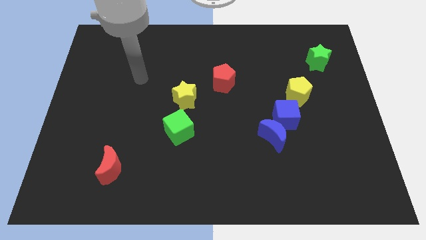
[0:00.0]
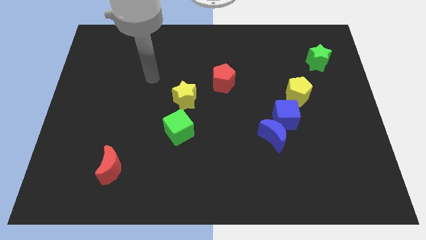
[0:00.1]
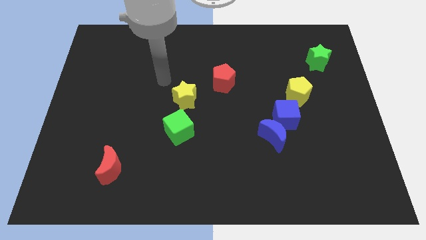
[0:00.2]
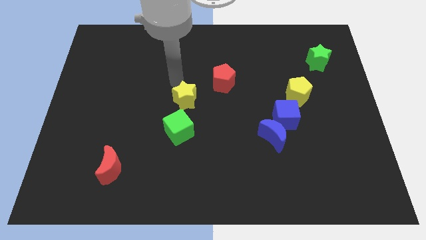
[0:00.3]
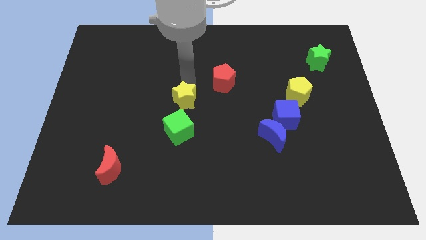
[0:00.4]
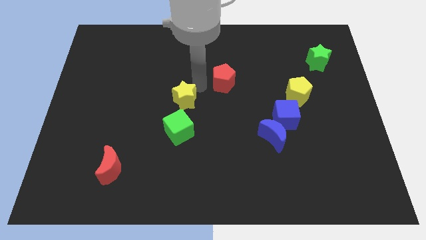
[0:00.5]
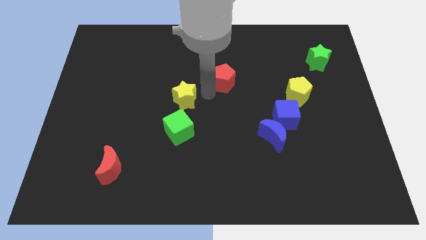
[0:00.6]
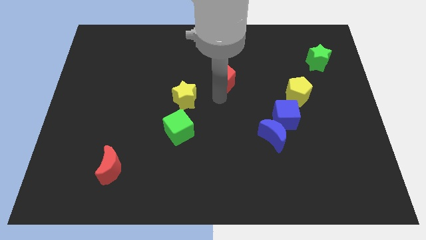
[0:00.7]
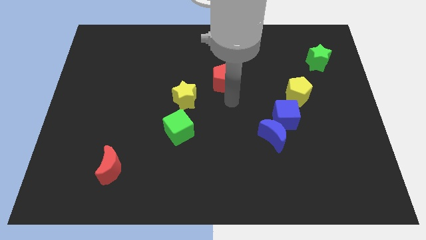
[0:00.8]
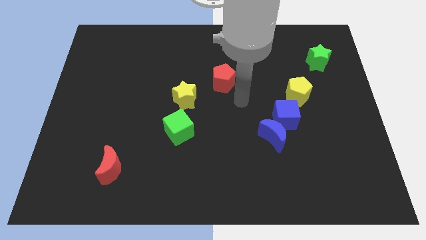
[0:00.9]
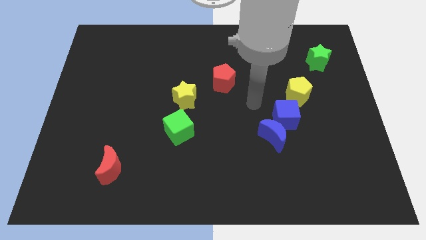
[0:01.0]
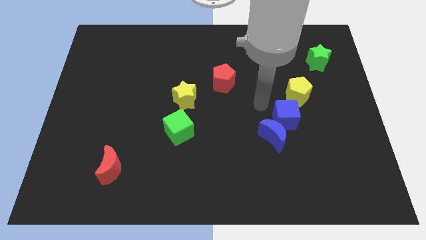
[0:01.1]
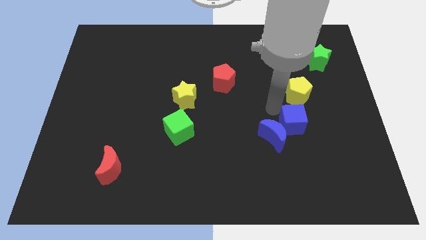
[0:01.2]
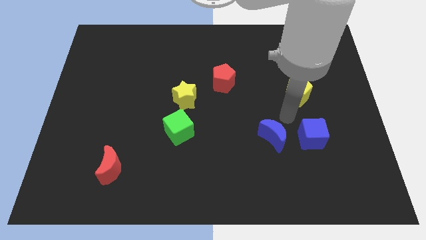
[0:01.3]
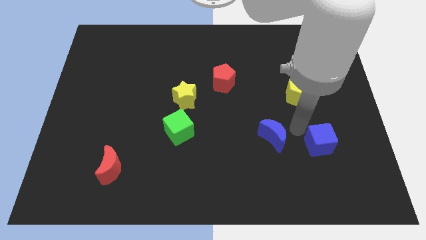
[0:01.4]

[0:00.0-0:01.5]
separate the blue moon from the blue cube

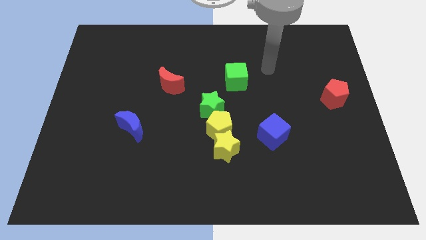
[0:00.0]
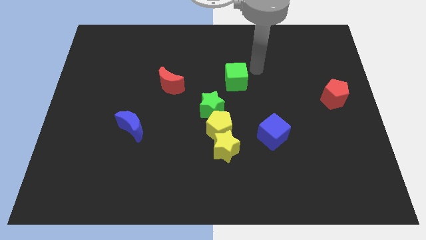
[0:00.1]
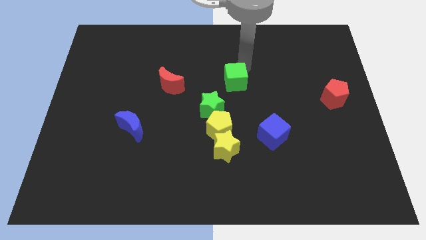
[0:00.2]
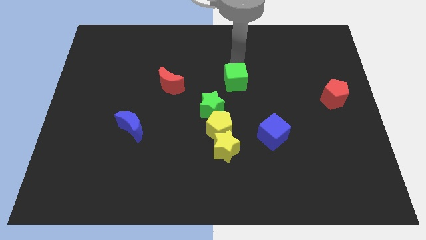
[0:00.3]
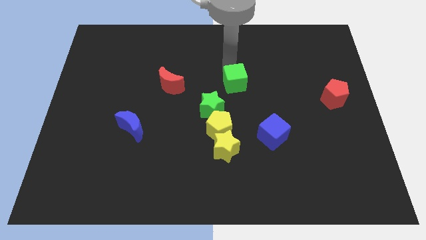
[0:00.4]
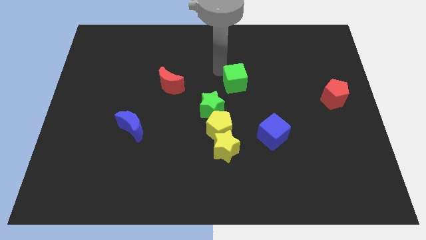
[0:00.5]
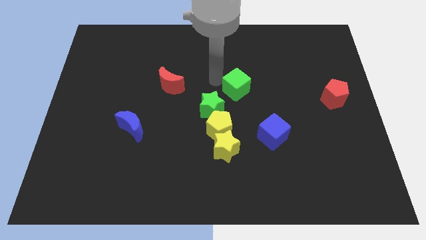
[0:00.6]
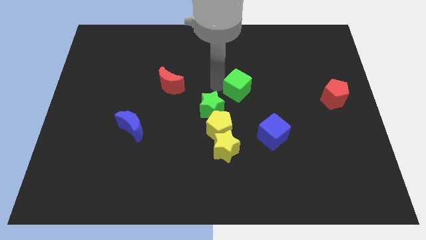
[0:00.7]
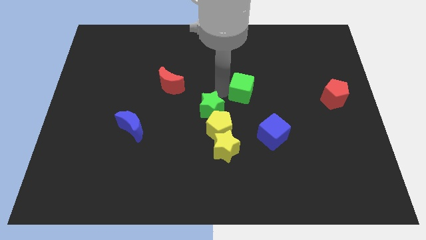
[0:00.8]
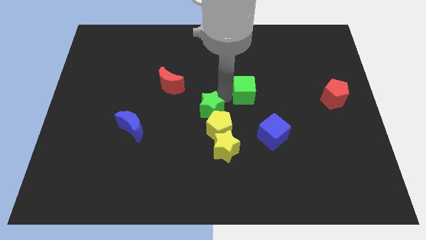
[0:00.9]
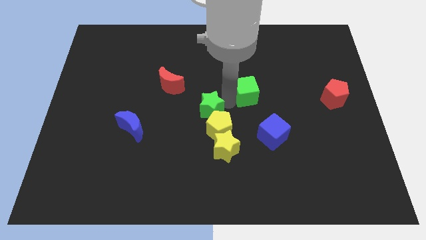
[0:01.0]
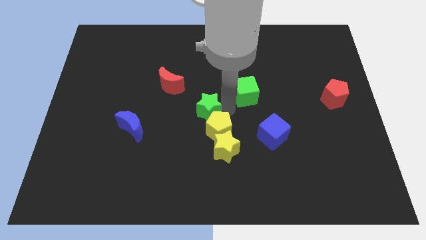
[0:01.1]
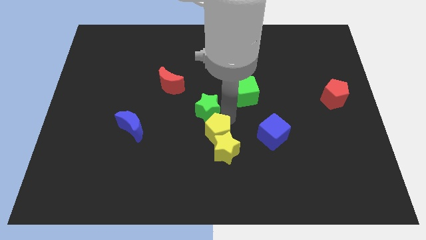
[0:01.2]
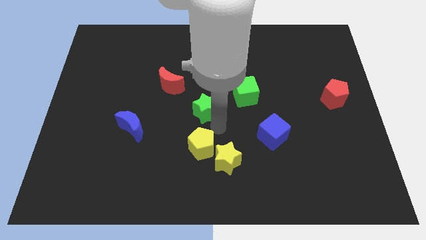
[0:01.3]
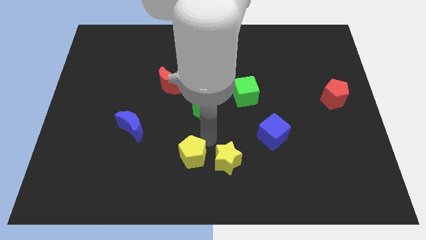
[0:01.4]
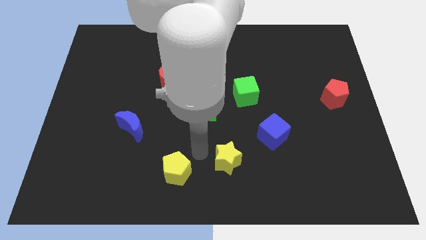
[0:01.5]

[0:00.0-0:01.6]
separate the yellow star from the yellow pentagon

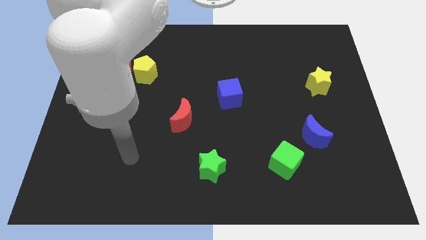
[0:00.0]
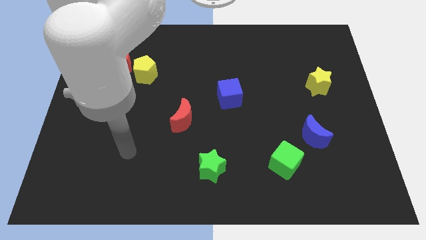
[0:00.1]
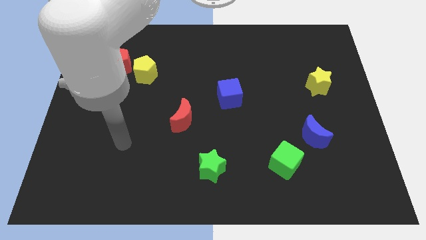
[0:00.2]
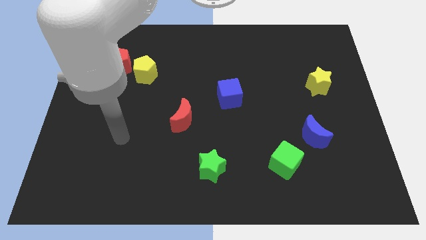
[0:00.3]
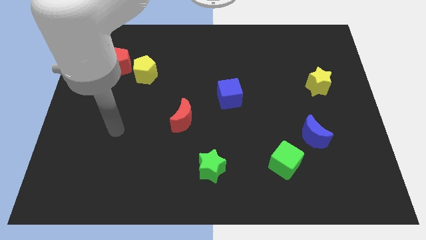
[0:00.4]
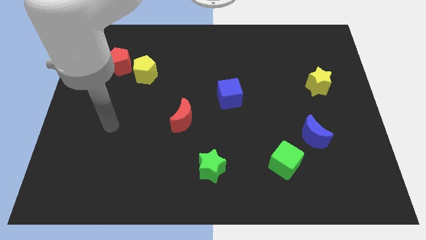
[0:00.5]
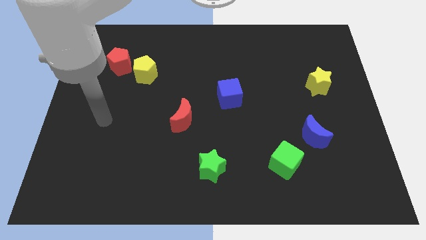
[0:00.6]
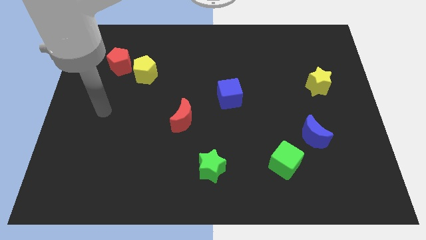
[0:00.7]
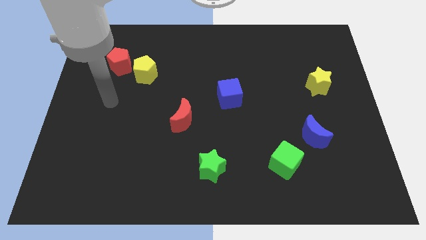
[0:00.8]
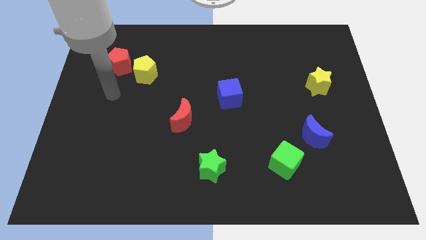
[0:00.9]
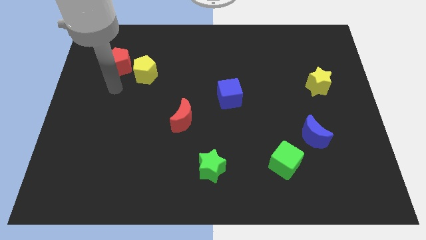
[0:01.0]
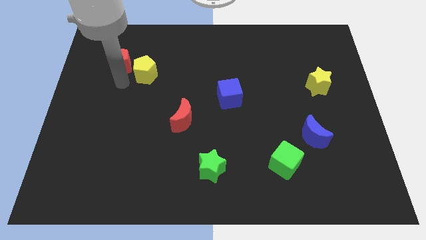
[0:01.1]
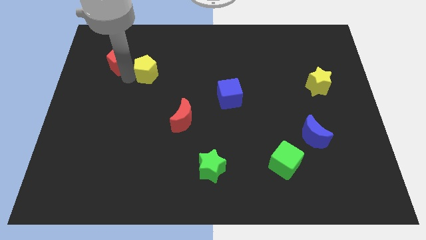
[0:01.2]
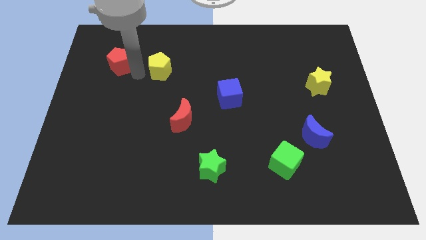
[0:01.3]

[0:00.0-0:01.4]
pull the red pentagon apart from the yellow pentagon

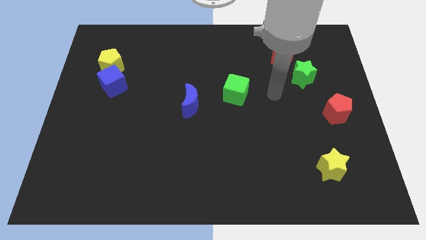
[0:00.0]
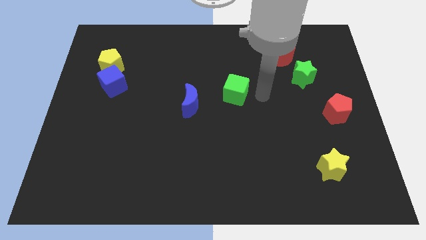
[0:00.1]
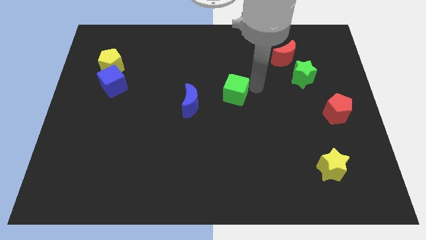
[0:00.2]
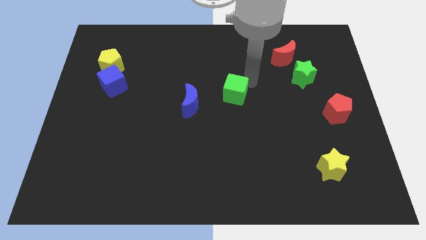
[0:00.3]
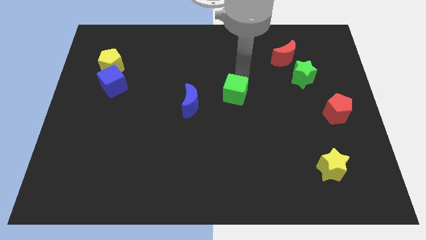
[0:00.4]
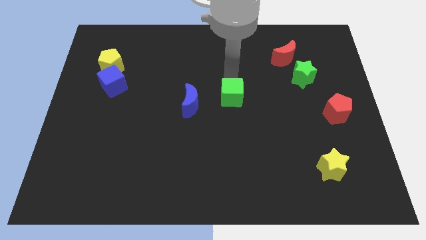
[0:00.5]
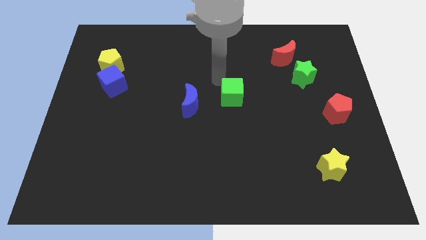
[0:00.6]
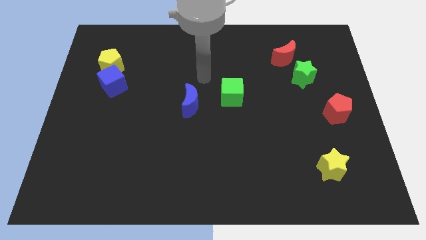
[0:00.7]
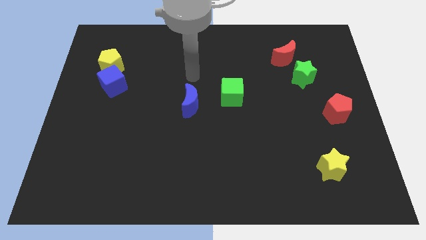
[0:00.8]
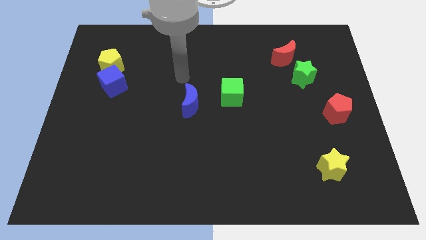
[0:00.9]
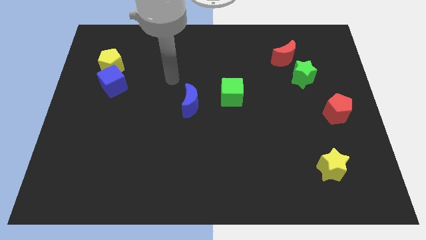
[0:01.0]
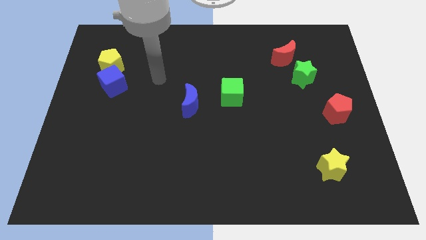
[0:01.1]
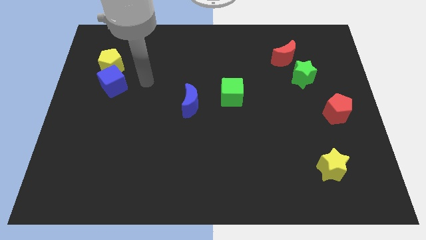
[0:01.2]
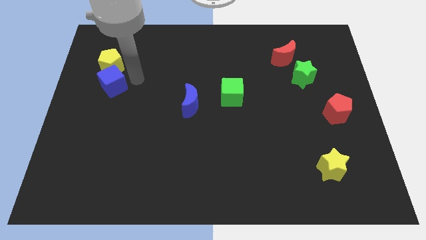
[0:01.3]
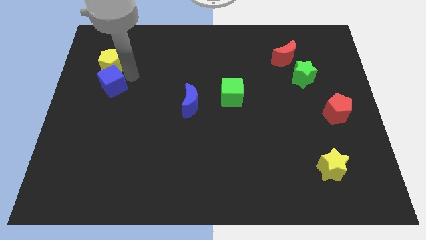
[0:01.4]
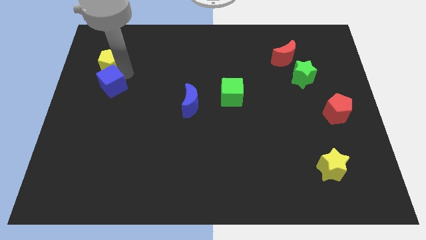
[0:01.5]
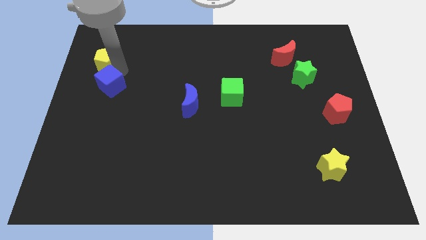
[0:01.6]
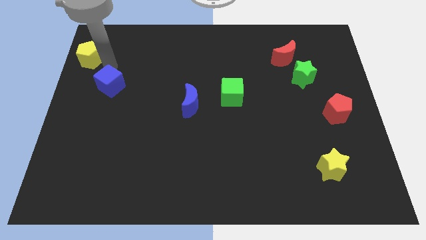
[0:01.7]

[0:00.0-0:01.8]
pull the blue cube apart from the yellow pentagon

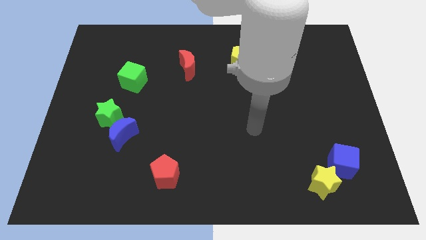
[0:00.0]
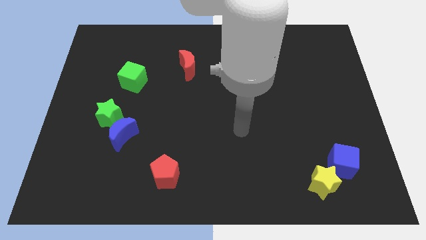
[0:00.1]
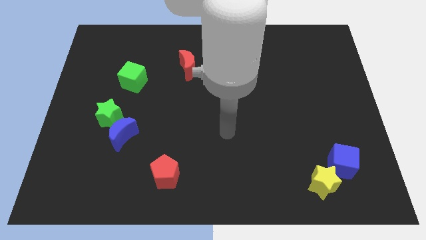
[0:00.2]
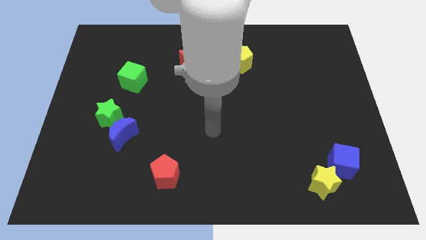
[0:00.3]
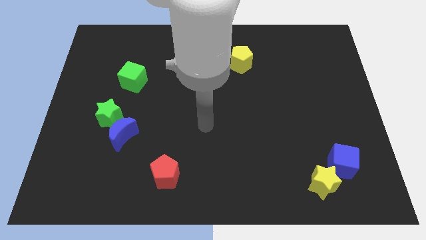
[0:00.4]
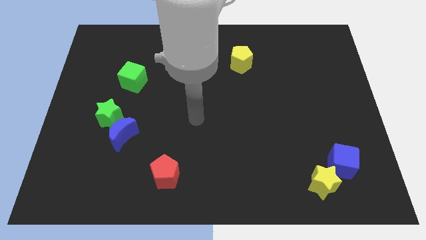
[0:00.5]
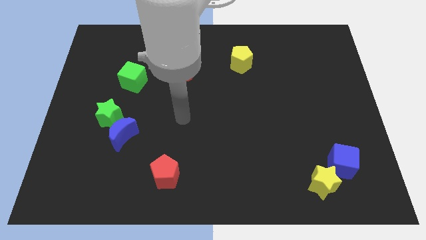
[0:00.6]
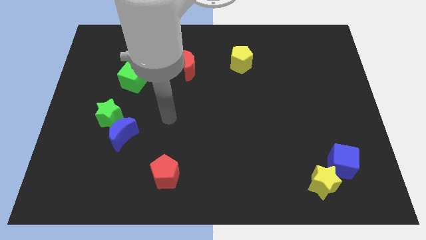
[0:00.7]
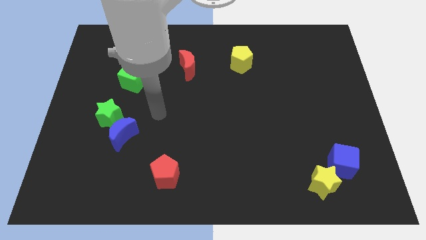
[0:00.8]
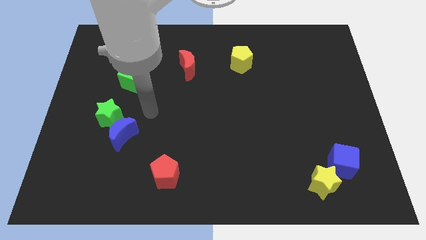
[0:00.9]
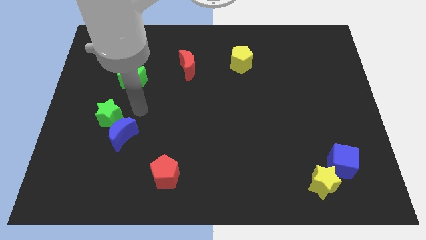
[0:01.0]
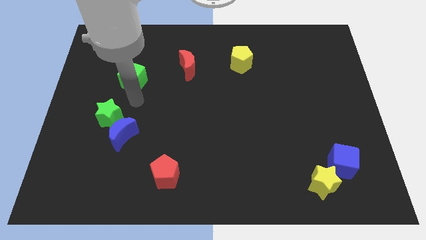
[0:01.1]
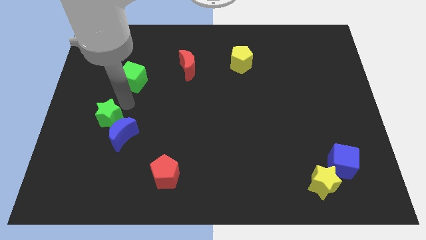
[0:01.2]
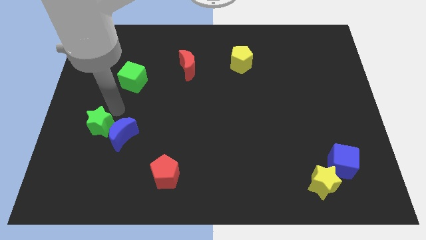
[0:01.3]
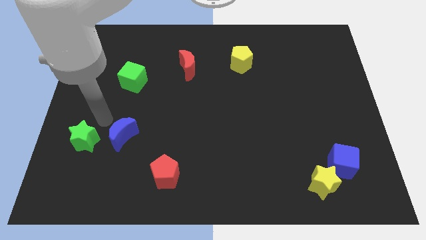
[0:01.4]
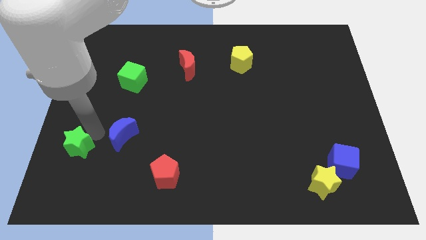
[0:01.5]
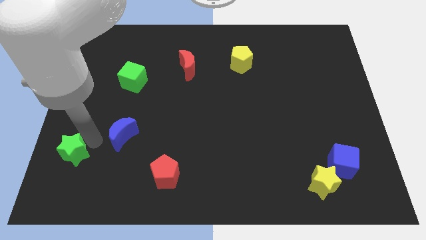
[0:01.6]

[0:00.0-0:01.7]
move the blue moon away from the green star

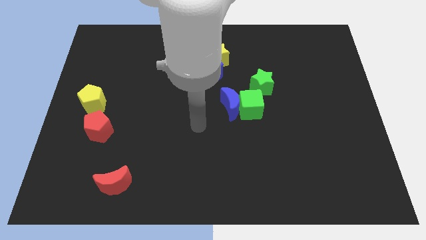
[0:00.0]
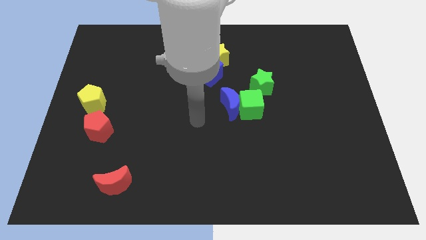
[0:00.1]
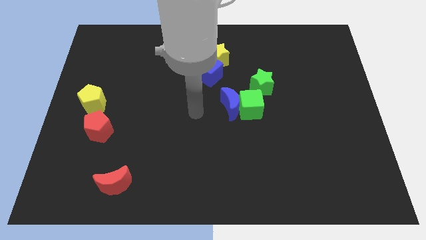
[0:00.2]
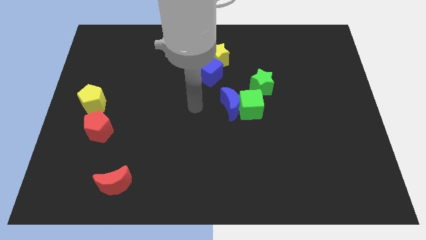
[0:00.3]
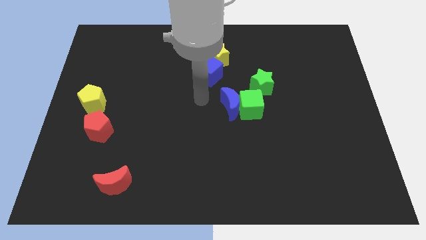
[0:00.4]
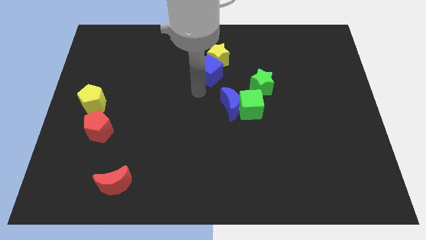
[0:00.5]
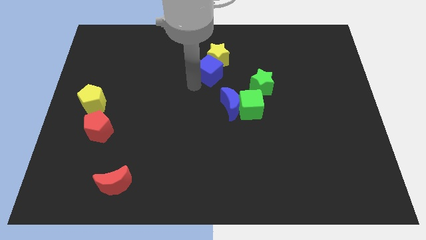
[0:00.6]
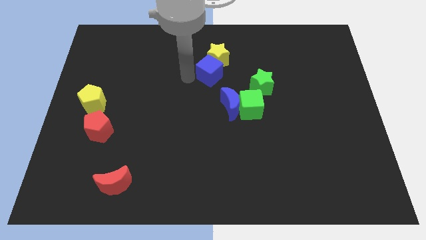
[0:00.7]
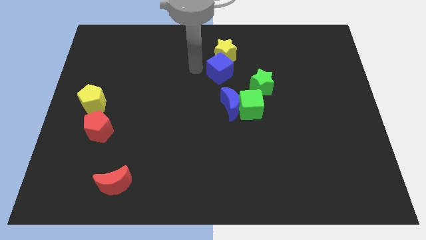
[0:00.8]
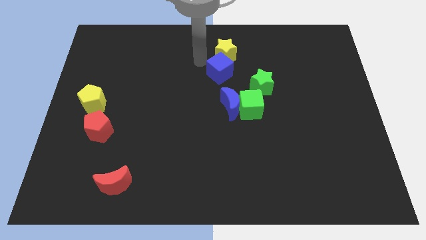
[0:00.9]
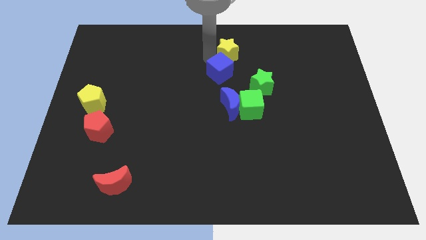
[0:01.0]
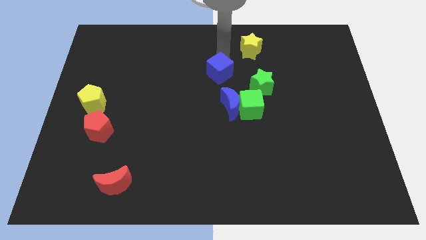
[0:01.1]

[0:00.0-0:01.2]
move the blue cube away from the yellow star

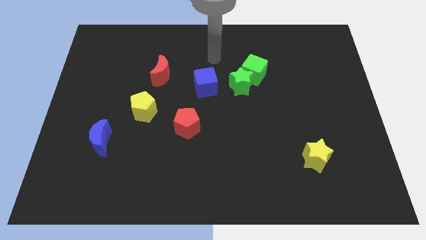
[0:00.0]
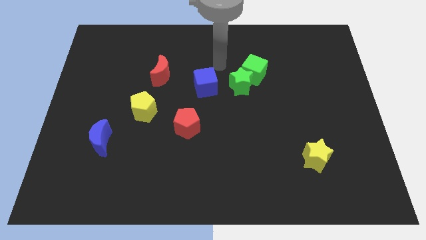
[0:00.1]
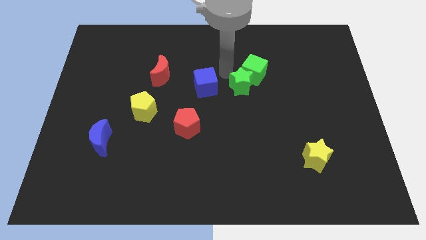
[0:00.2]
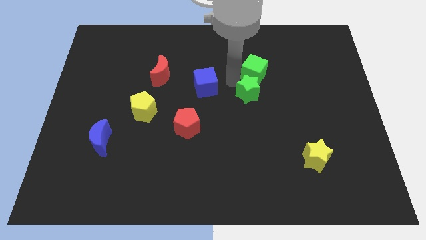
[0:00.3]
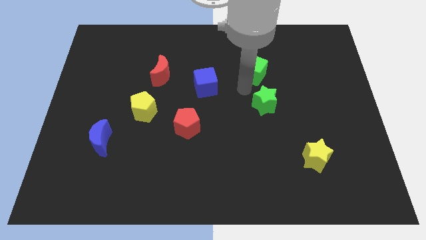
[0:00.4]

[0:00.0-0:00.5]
move the green cube away from the green star
